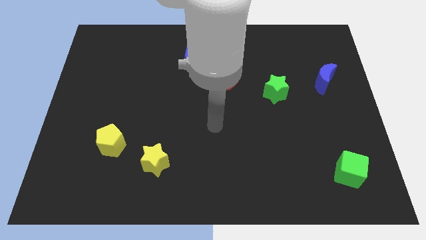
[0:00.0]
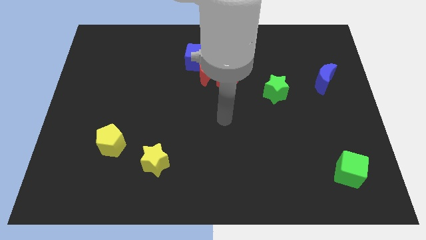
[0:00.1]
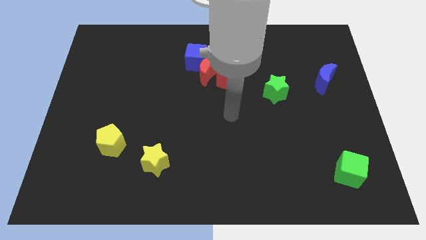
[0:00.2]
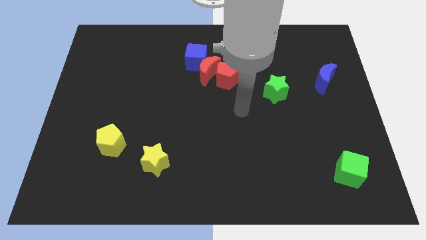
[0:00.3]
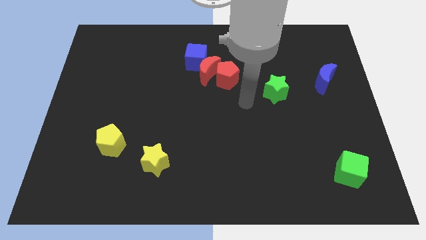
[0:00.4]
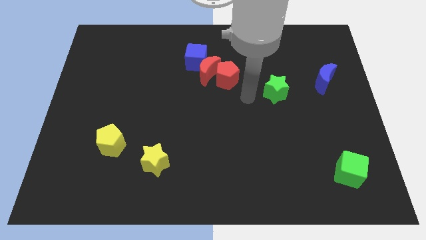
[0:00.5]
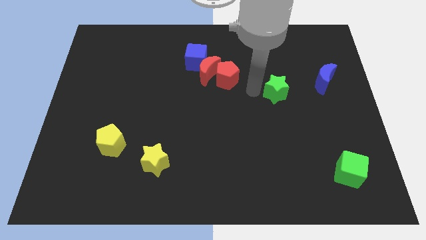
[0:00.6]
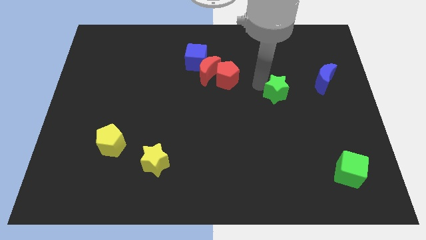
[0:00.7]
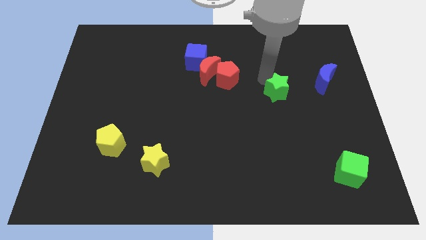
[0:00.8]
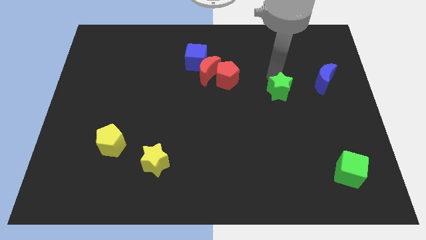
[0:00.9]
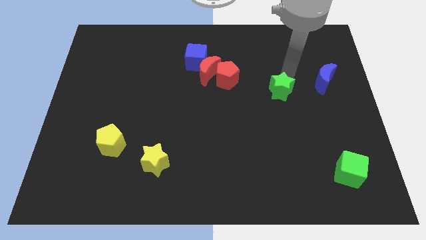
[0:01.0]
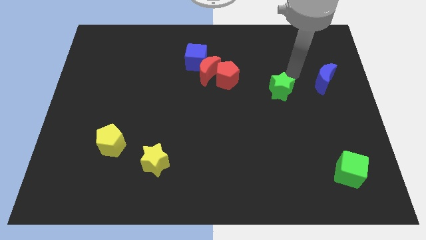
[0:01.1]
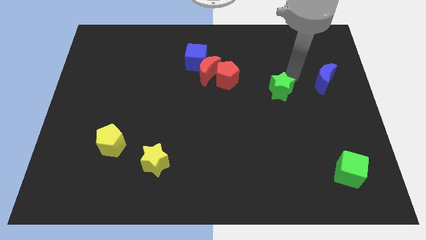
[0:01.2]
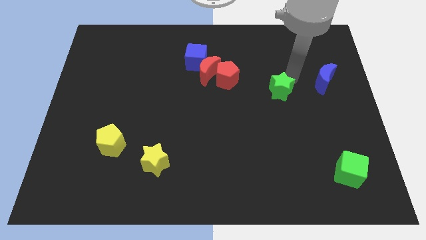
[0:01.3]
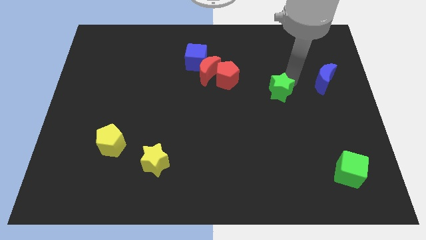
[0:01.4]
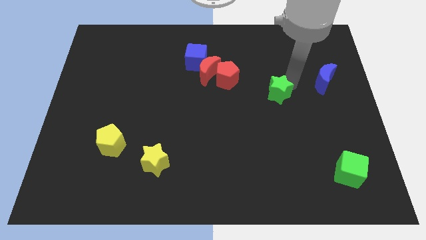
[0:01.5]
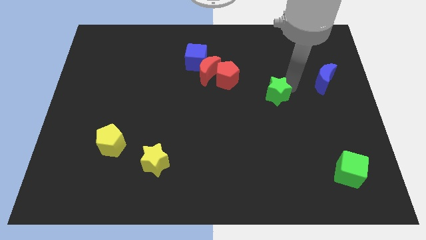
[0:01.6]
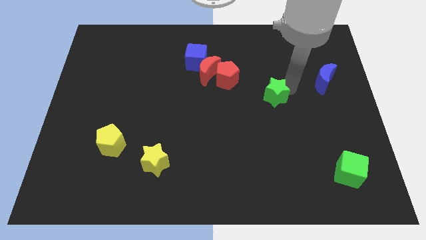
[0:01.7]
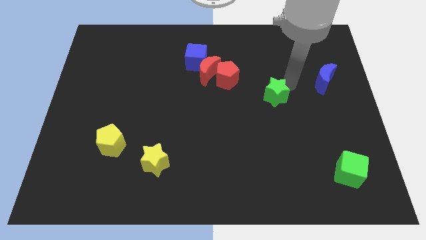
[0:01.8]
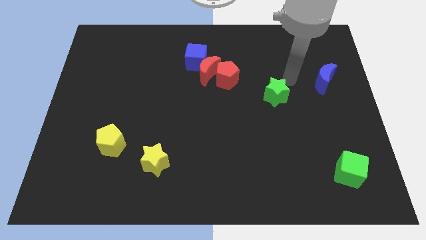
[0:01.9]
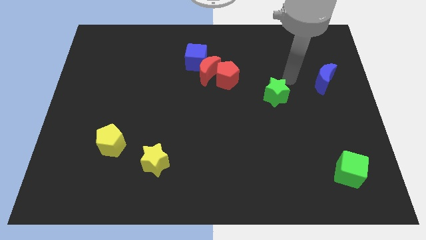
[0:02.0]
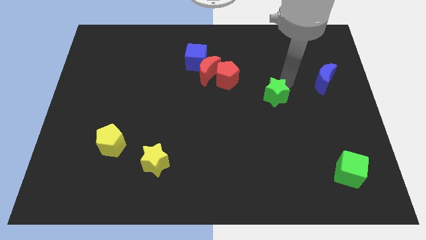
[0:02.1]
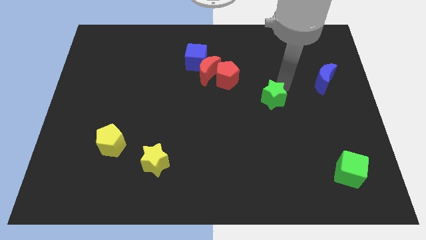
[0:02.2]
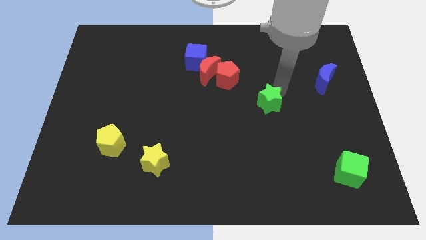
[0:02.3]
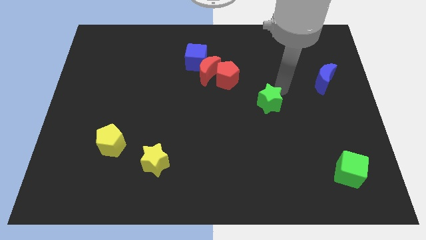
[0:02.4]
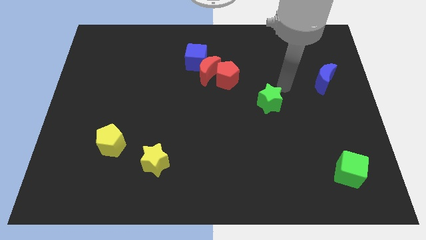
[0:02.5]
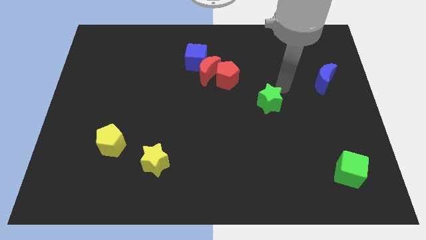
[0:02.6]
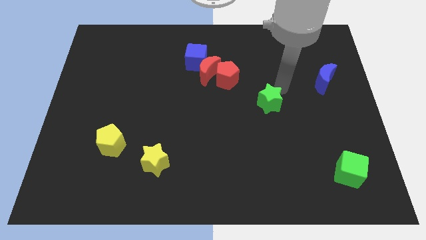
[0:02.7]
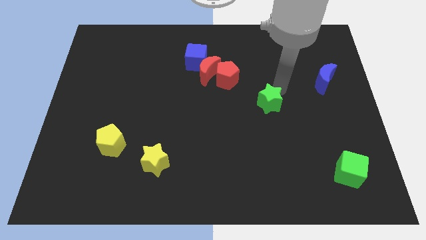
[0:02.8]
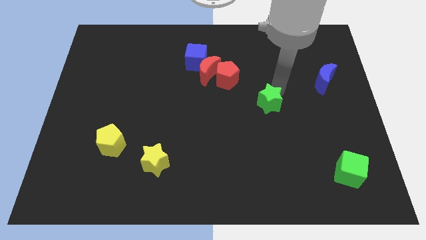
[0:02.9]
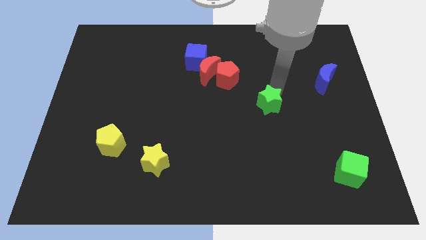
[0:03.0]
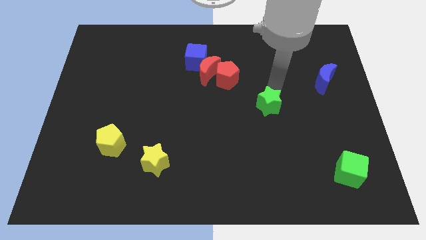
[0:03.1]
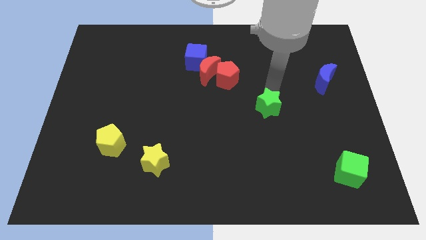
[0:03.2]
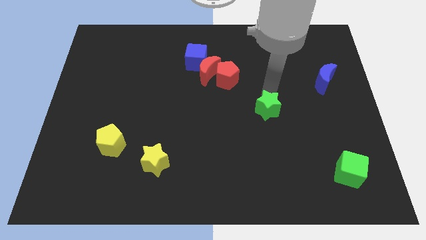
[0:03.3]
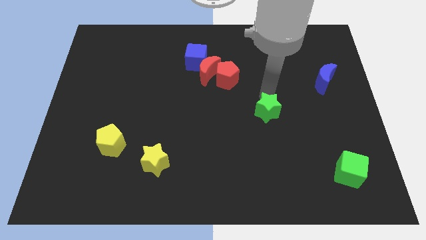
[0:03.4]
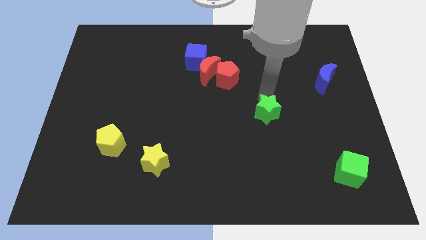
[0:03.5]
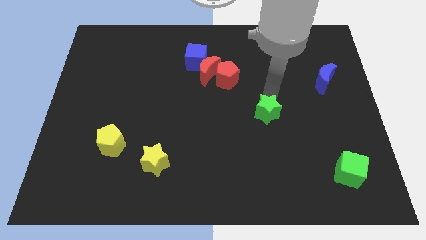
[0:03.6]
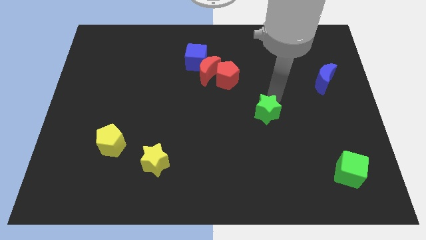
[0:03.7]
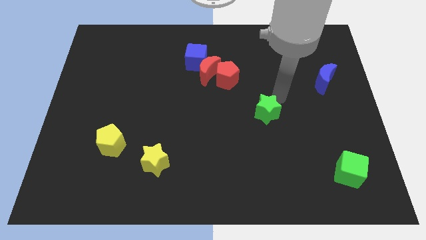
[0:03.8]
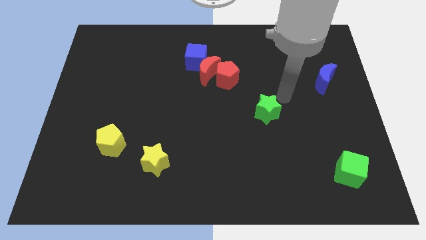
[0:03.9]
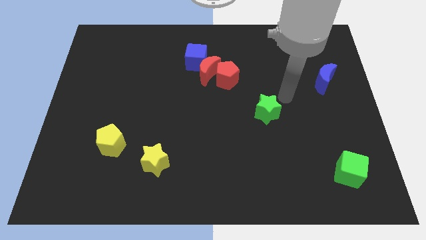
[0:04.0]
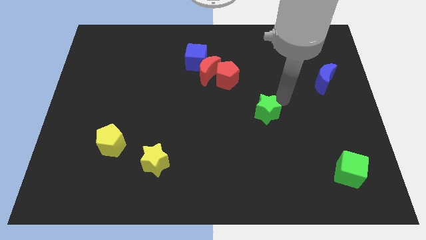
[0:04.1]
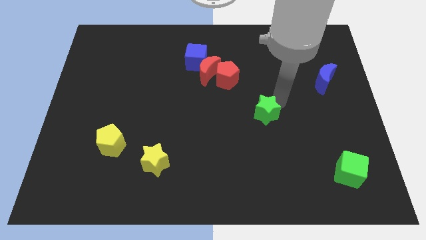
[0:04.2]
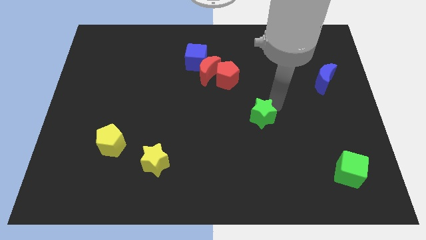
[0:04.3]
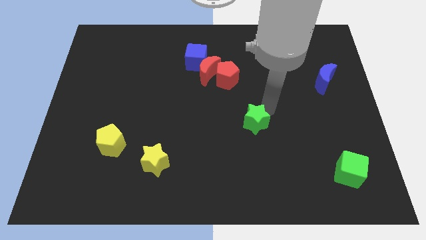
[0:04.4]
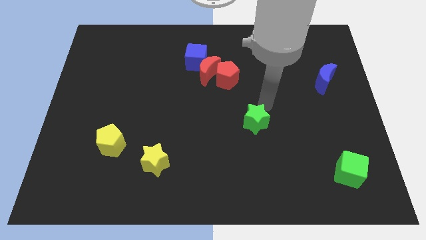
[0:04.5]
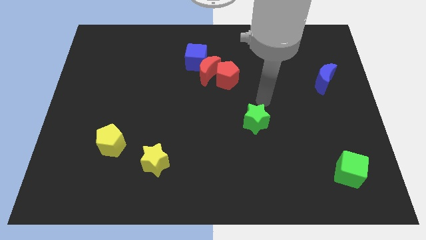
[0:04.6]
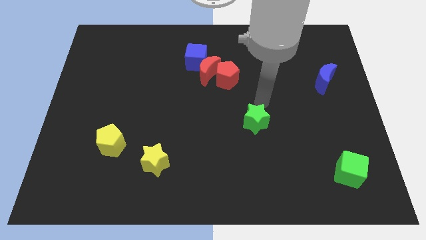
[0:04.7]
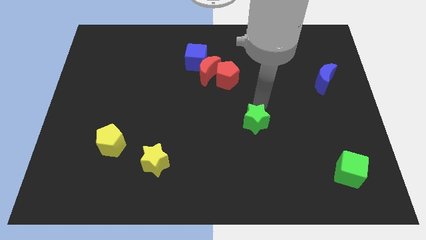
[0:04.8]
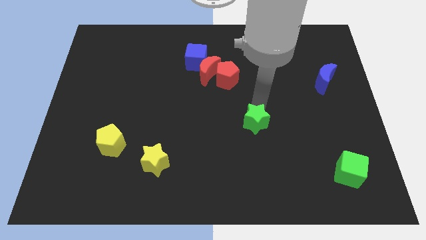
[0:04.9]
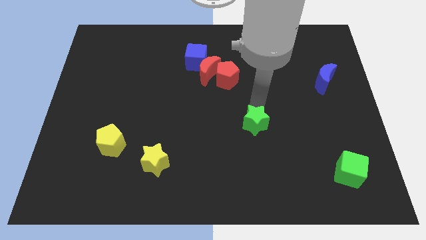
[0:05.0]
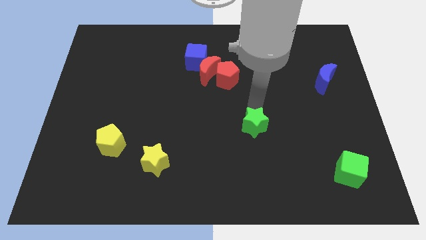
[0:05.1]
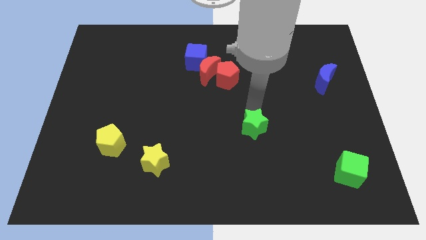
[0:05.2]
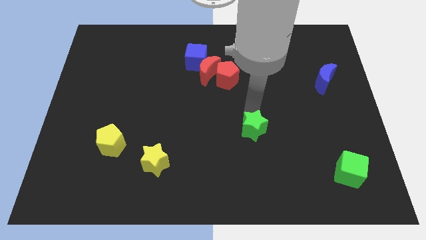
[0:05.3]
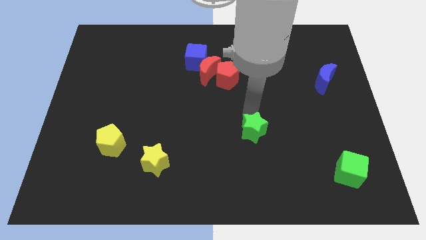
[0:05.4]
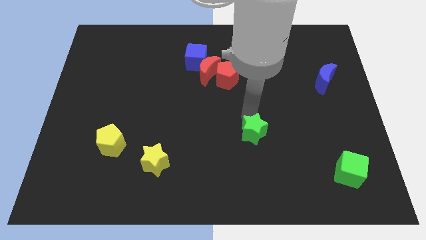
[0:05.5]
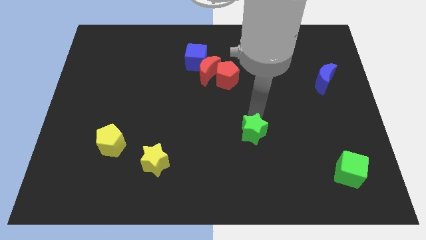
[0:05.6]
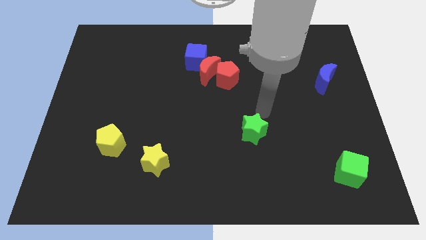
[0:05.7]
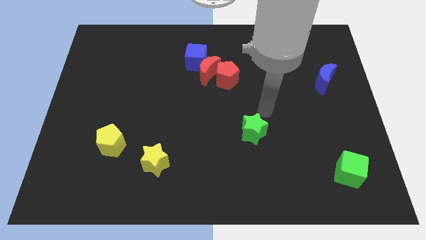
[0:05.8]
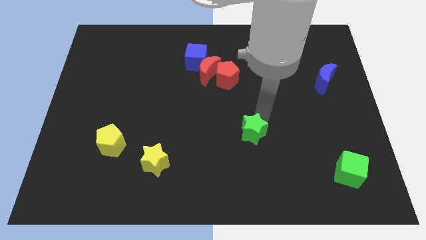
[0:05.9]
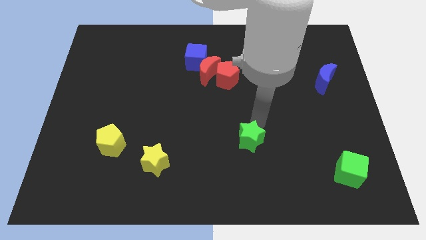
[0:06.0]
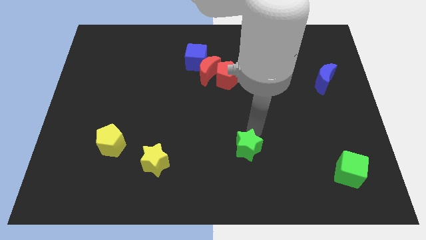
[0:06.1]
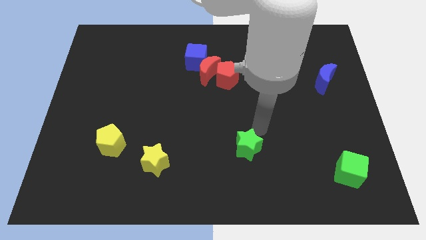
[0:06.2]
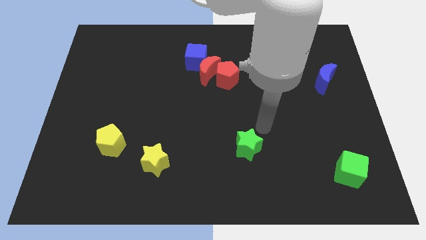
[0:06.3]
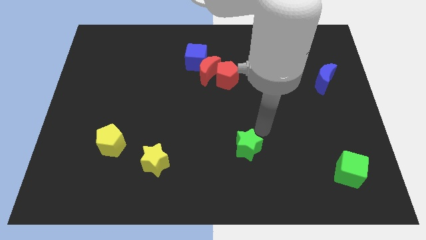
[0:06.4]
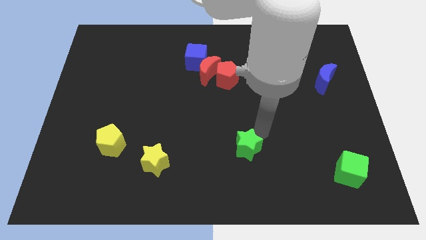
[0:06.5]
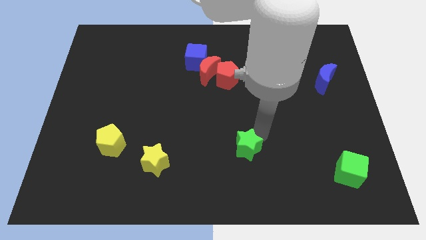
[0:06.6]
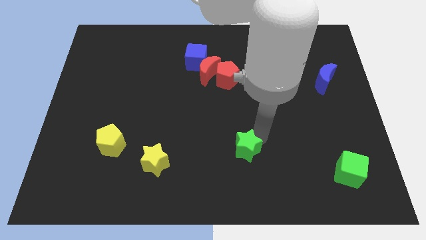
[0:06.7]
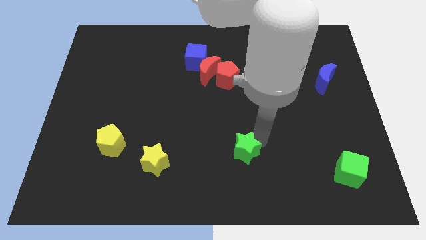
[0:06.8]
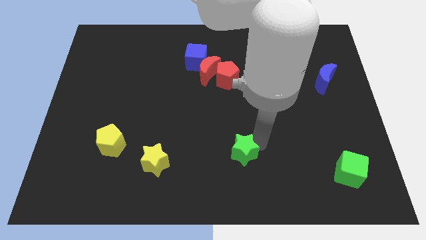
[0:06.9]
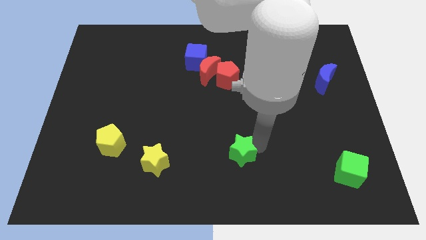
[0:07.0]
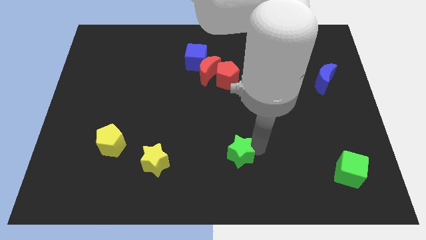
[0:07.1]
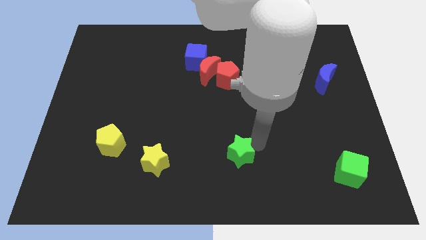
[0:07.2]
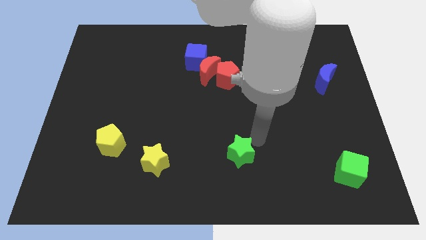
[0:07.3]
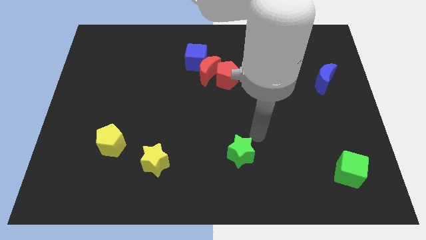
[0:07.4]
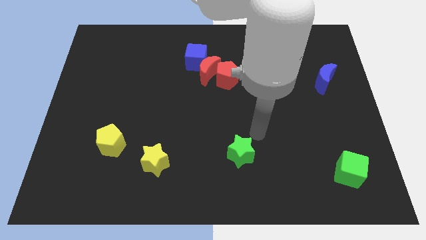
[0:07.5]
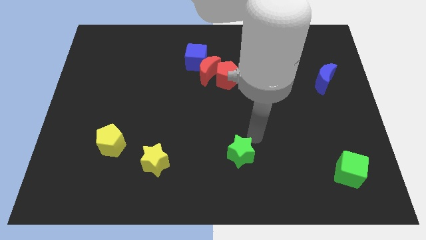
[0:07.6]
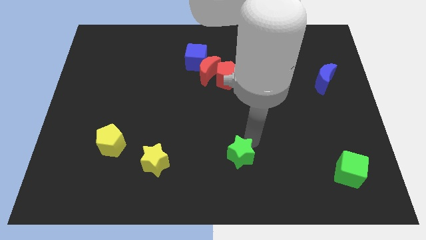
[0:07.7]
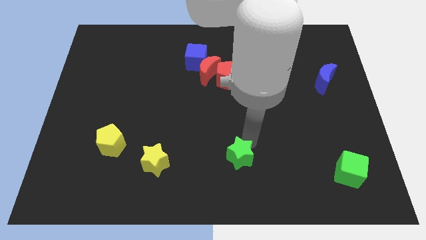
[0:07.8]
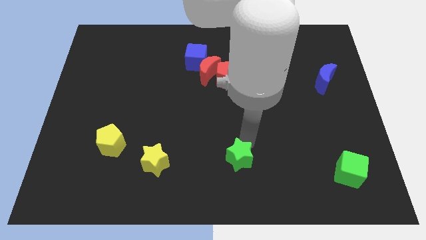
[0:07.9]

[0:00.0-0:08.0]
slide the green star to the bottom
